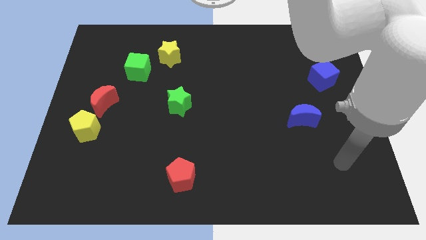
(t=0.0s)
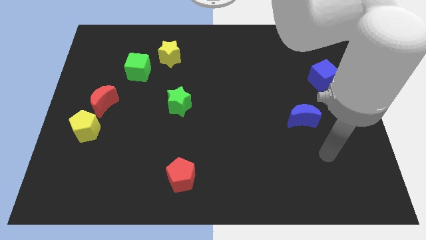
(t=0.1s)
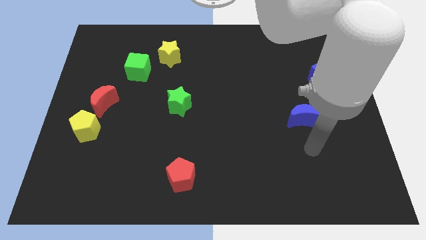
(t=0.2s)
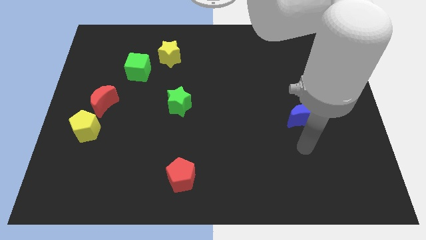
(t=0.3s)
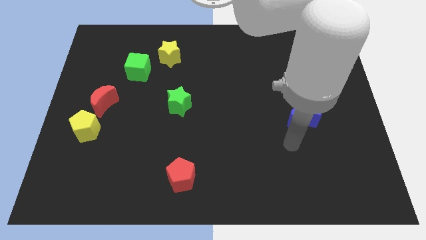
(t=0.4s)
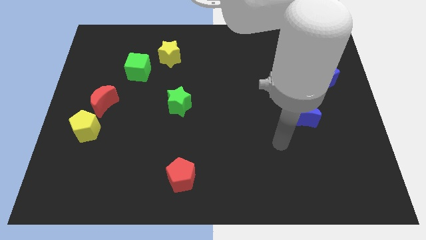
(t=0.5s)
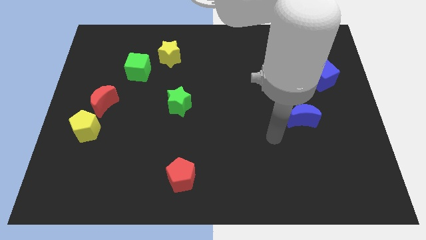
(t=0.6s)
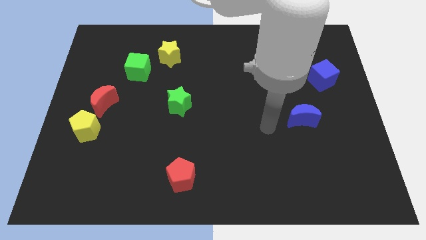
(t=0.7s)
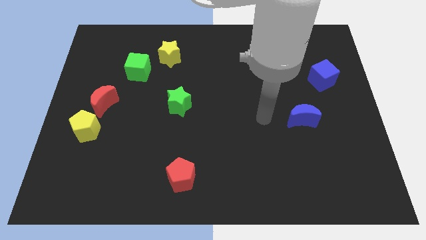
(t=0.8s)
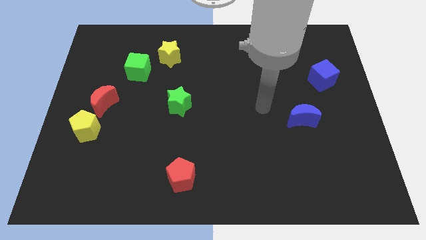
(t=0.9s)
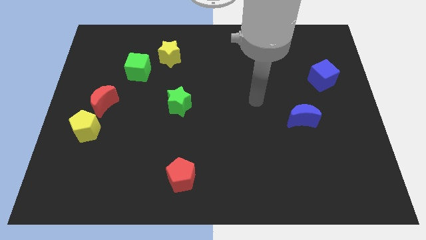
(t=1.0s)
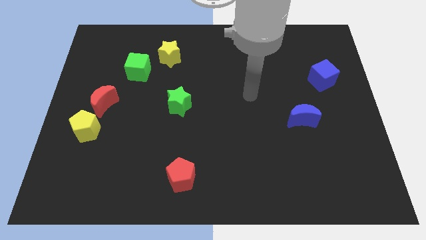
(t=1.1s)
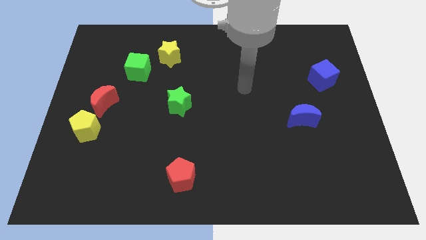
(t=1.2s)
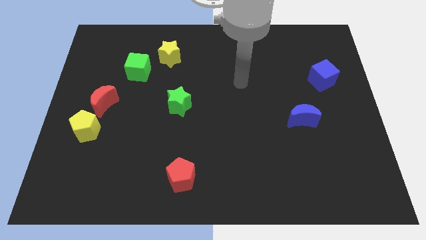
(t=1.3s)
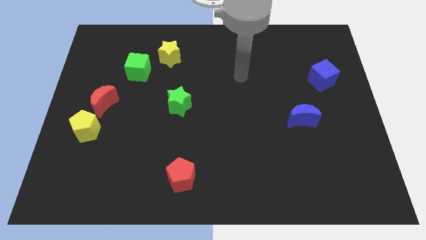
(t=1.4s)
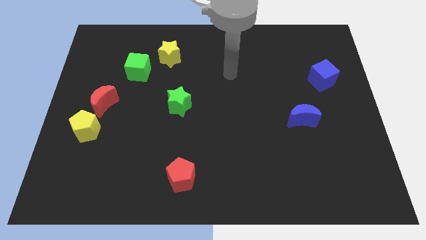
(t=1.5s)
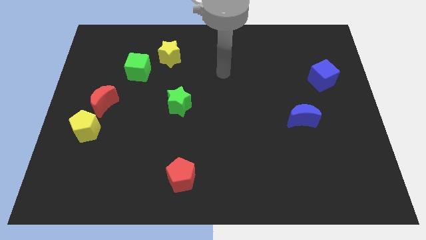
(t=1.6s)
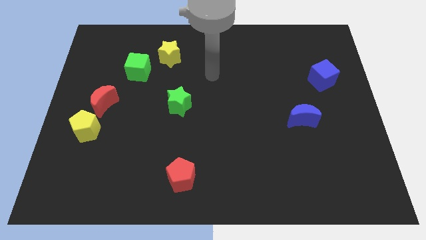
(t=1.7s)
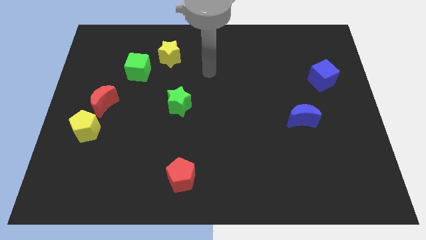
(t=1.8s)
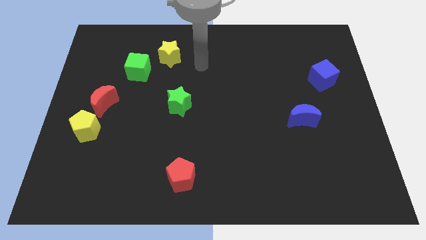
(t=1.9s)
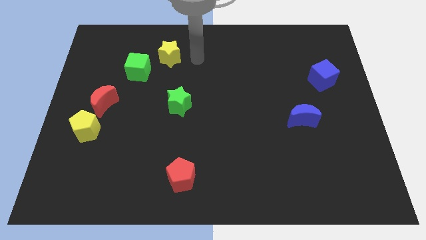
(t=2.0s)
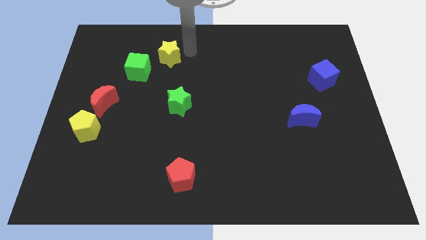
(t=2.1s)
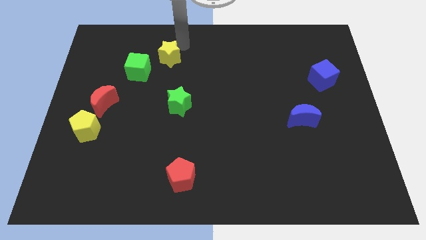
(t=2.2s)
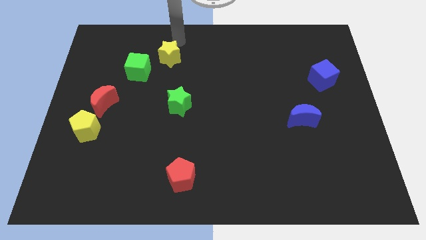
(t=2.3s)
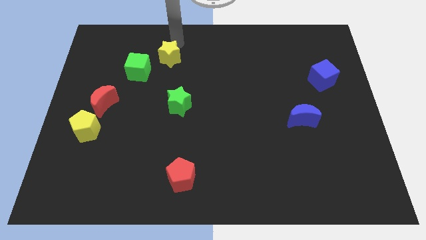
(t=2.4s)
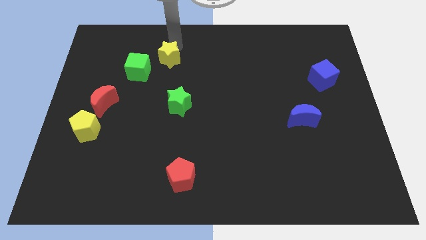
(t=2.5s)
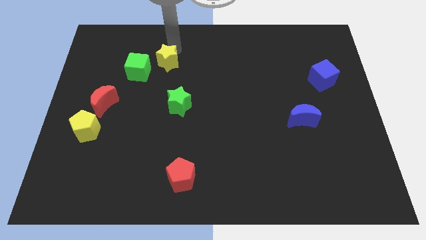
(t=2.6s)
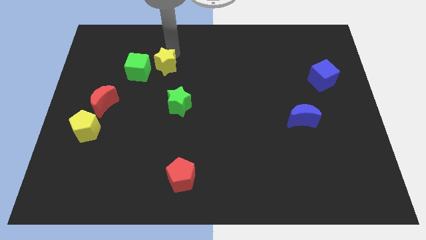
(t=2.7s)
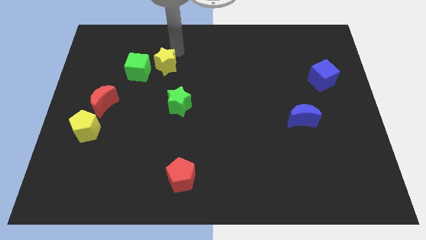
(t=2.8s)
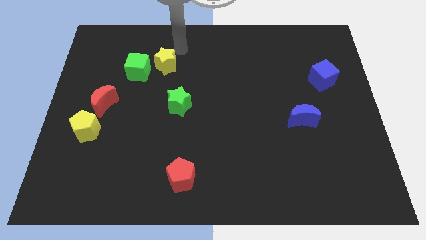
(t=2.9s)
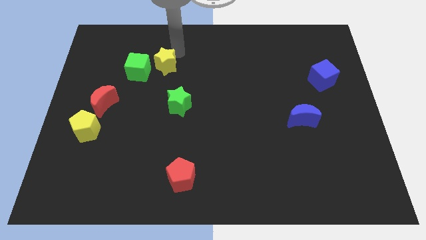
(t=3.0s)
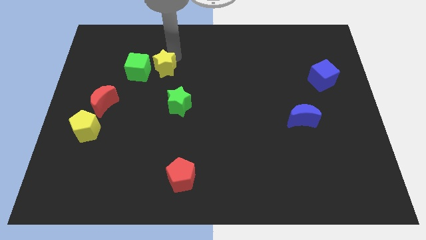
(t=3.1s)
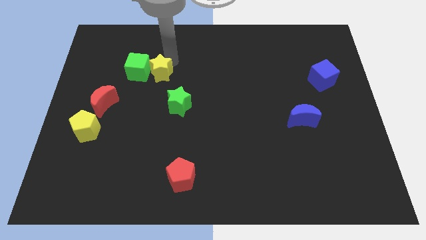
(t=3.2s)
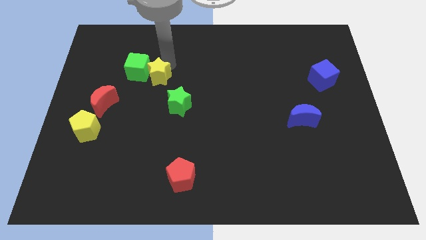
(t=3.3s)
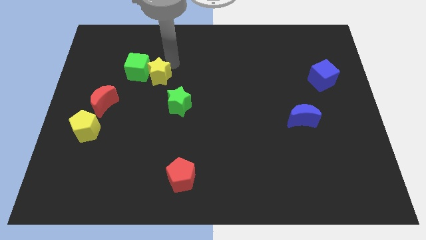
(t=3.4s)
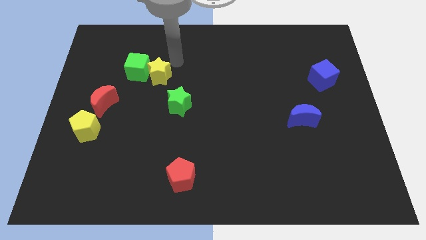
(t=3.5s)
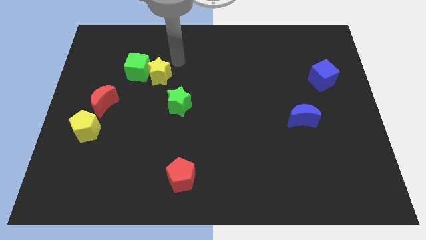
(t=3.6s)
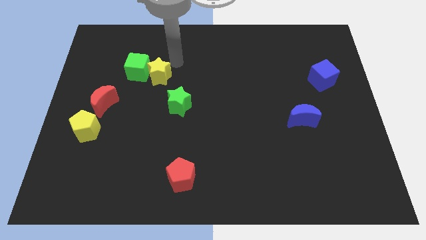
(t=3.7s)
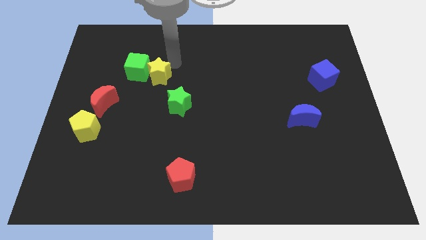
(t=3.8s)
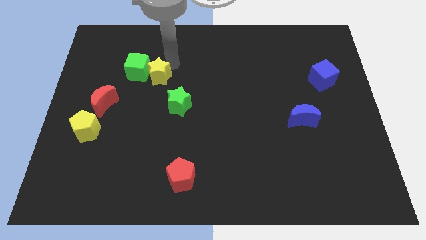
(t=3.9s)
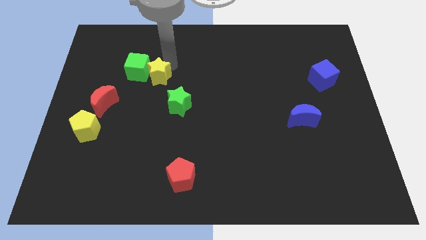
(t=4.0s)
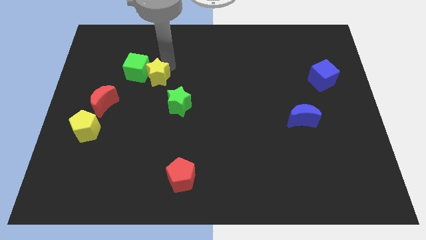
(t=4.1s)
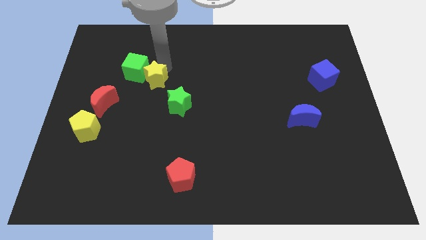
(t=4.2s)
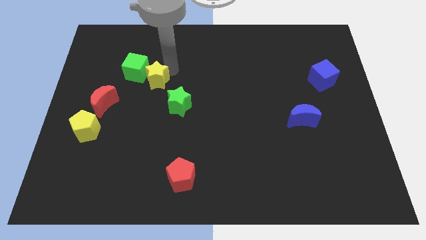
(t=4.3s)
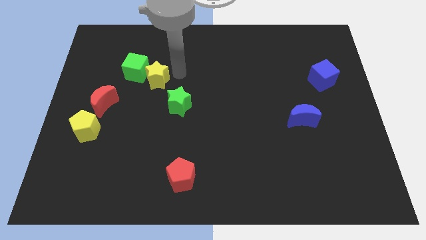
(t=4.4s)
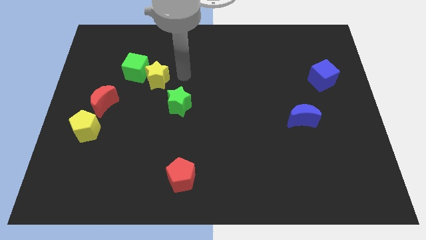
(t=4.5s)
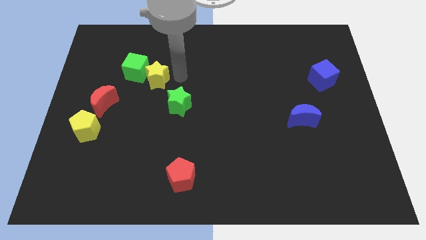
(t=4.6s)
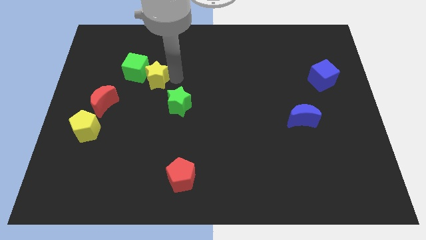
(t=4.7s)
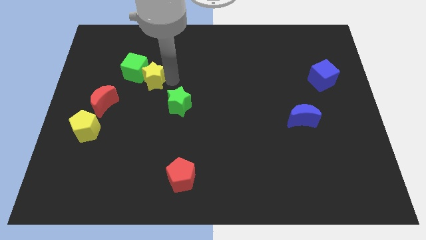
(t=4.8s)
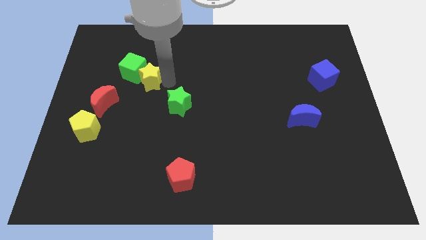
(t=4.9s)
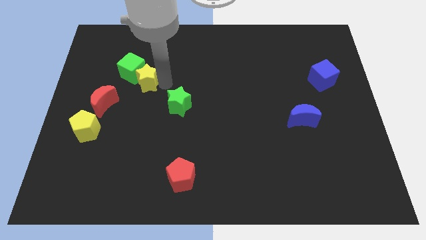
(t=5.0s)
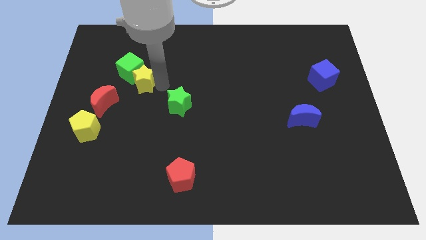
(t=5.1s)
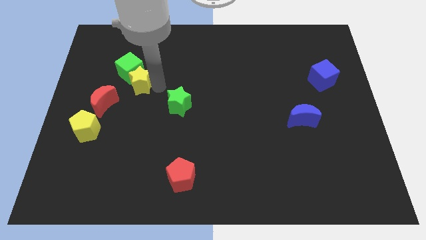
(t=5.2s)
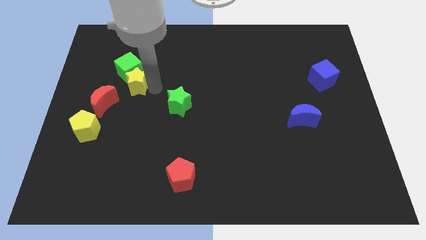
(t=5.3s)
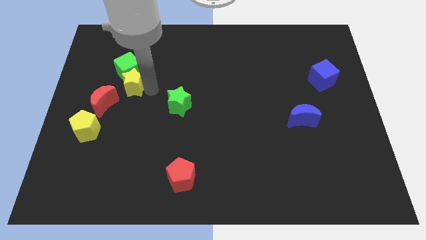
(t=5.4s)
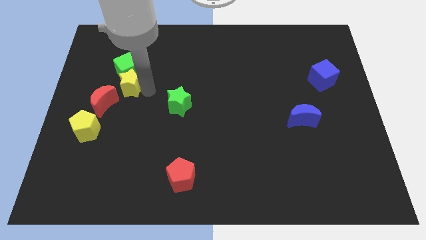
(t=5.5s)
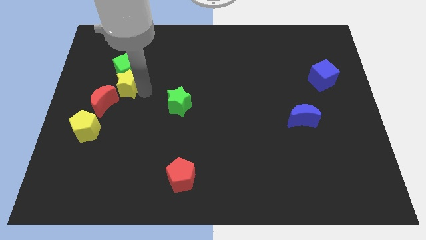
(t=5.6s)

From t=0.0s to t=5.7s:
push the yellow star diagonally down and to the left of the green cube

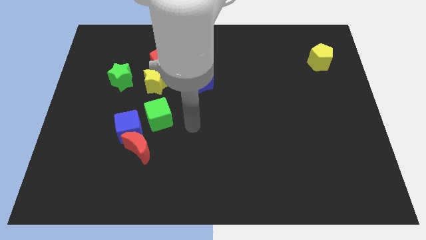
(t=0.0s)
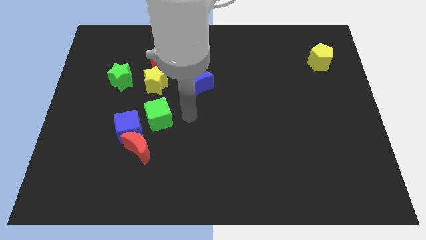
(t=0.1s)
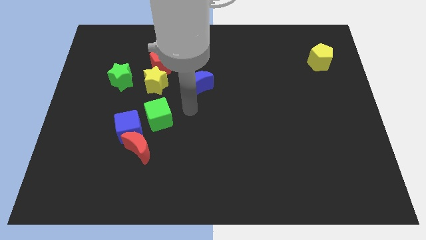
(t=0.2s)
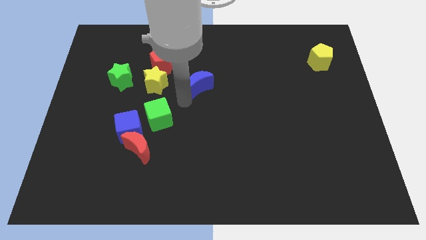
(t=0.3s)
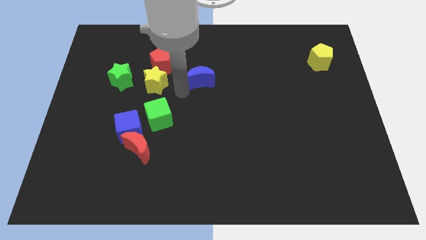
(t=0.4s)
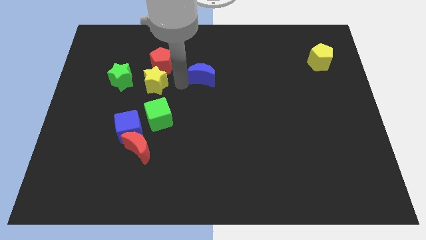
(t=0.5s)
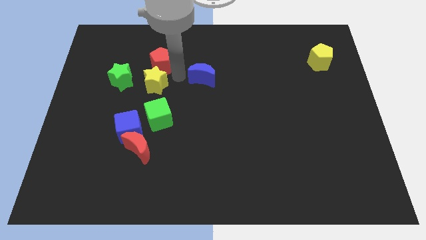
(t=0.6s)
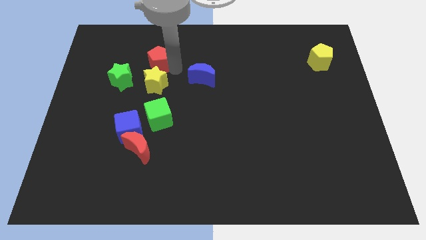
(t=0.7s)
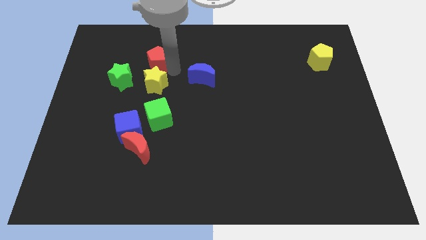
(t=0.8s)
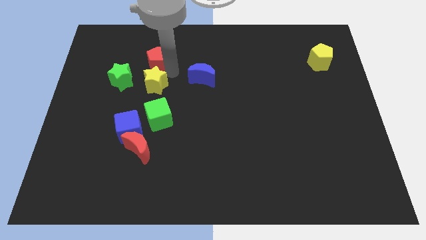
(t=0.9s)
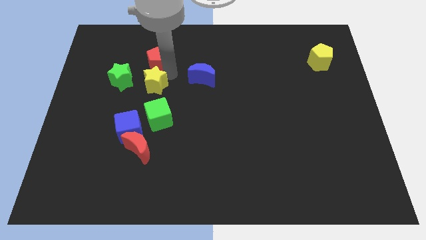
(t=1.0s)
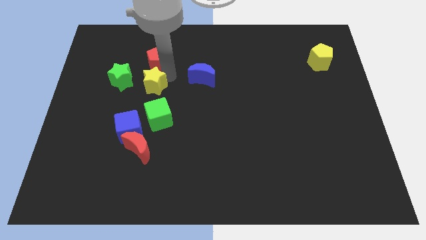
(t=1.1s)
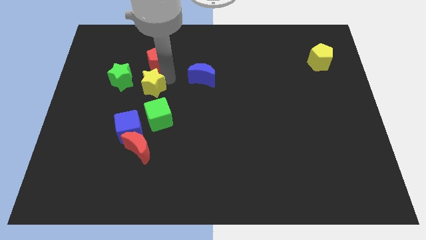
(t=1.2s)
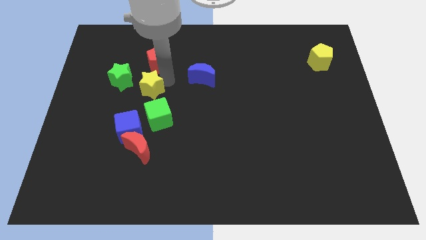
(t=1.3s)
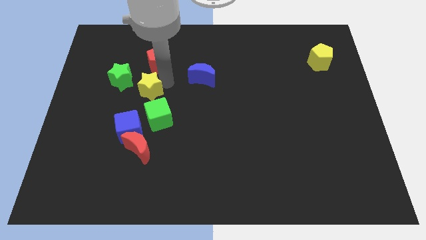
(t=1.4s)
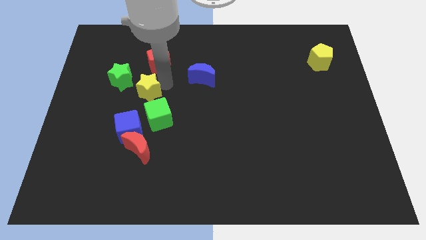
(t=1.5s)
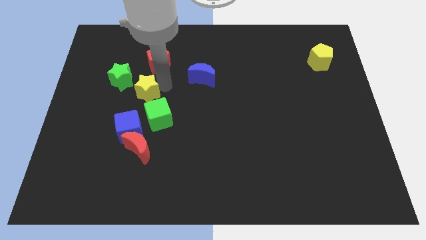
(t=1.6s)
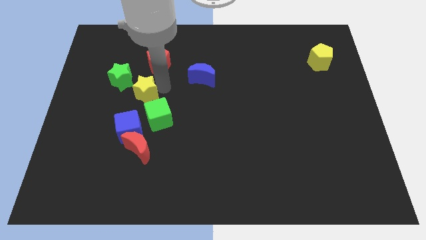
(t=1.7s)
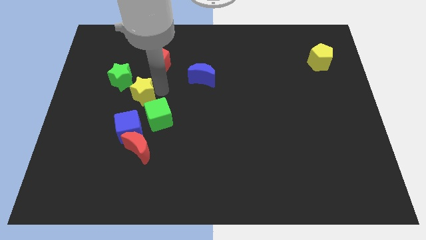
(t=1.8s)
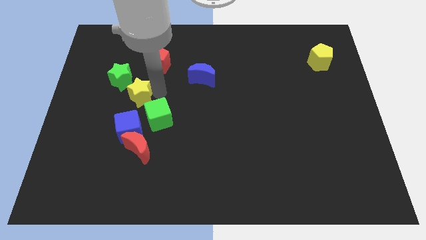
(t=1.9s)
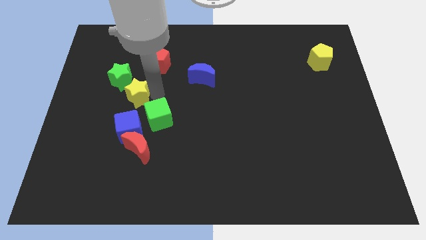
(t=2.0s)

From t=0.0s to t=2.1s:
push the yellow star to the bottom side of the green star
